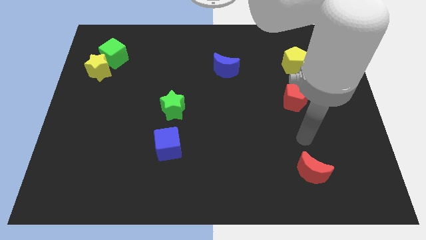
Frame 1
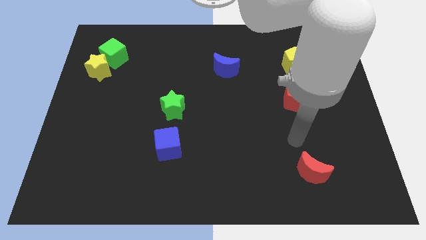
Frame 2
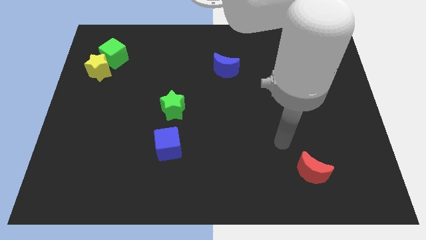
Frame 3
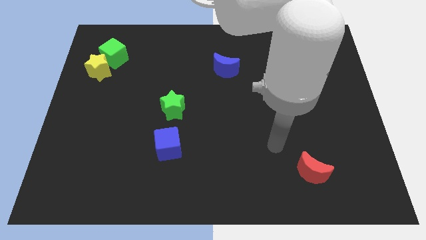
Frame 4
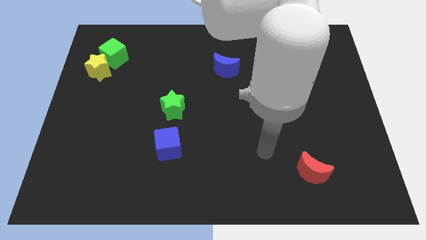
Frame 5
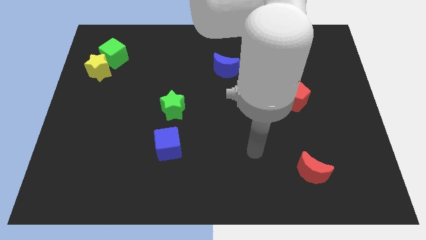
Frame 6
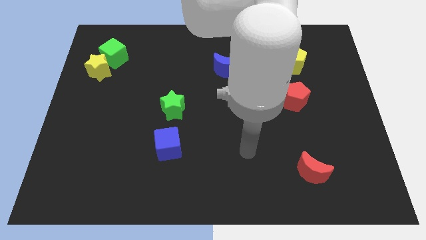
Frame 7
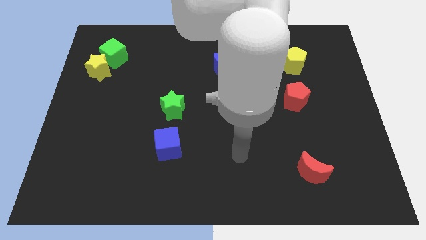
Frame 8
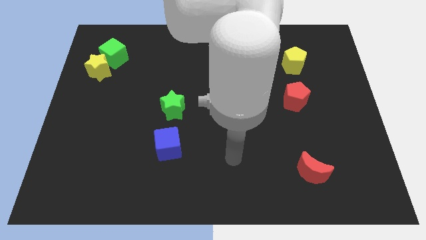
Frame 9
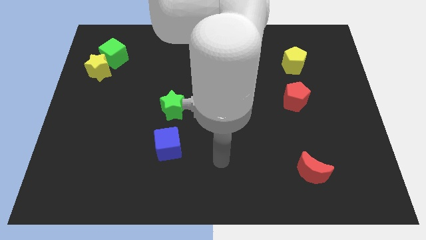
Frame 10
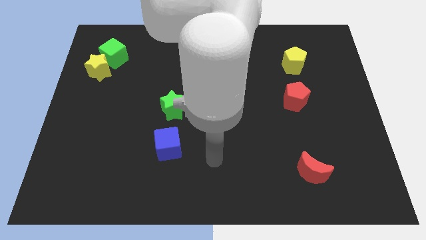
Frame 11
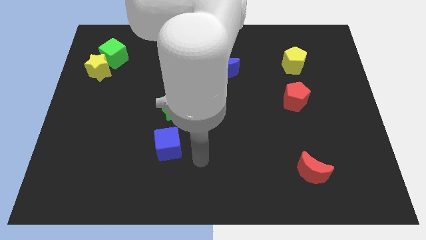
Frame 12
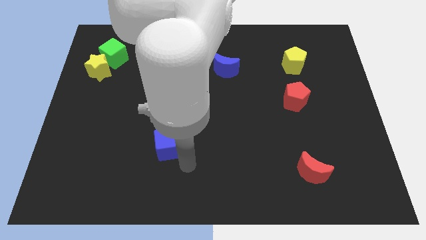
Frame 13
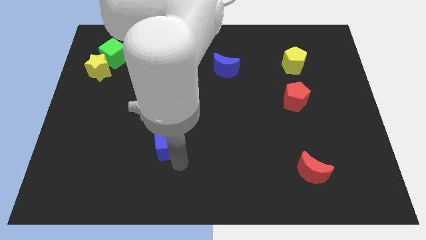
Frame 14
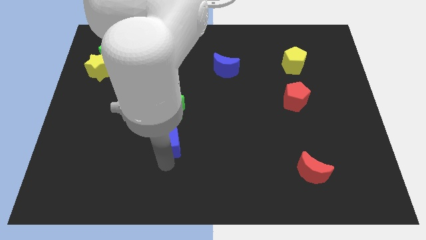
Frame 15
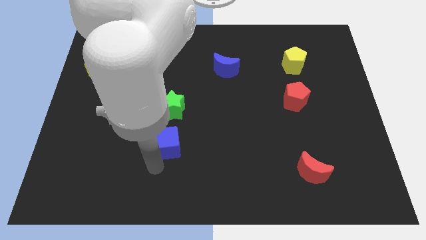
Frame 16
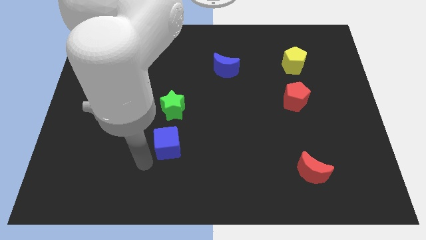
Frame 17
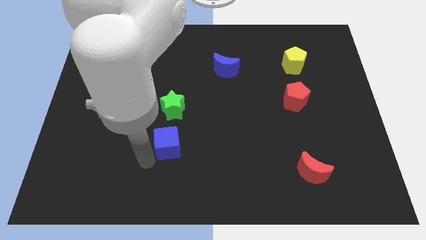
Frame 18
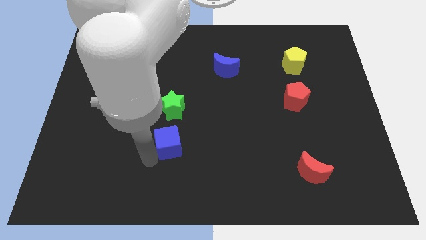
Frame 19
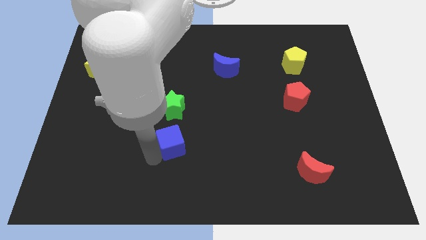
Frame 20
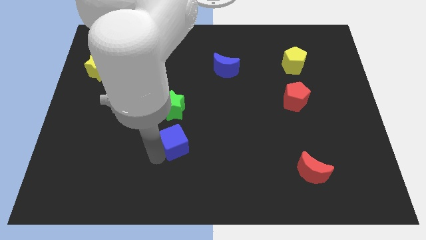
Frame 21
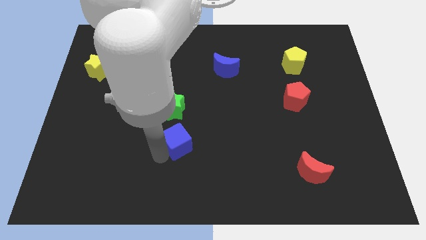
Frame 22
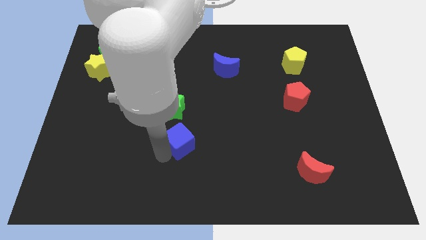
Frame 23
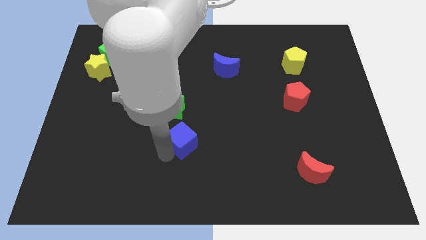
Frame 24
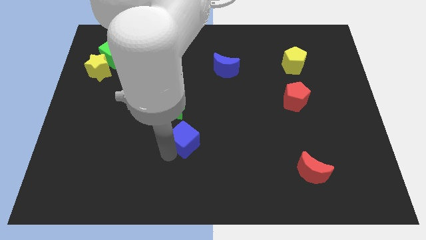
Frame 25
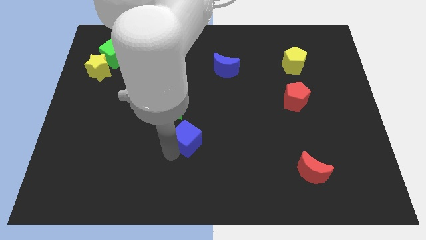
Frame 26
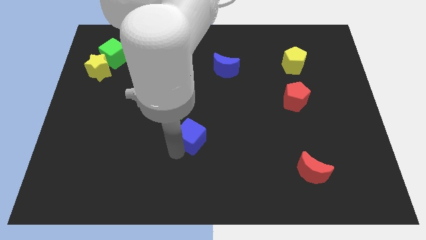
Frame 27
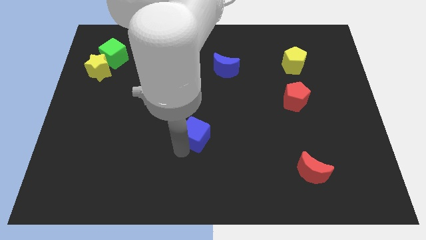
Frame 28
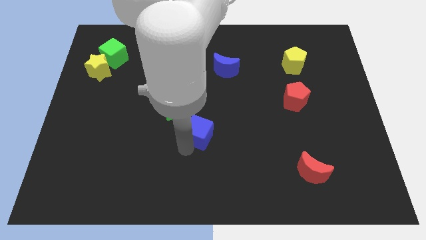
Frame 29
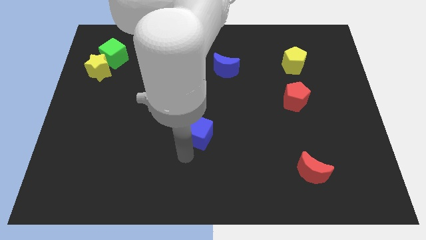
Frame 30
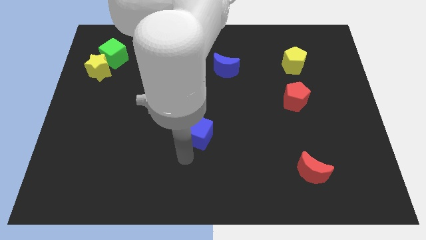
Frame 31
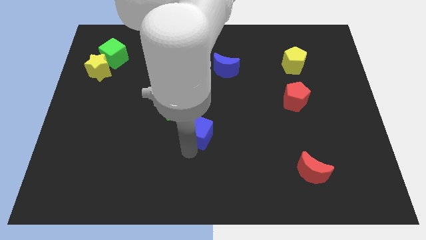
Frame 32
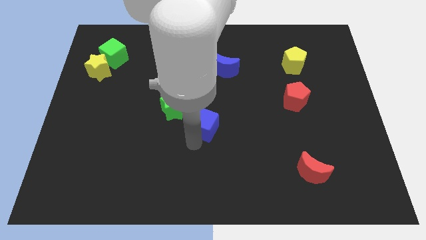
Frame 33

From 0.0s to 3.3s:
push the blue cube slightly up and to the right diagonally

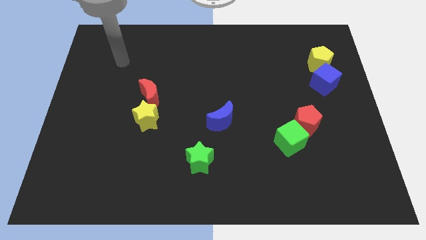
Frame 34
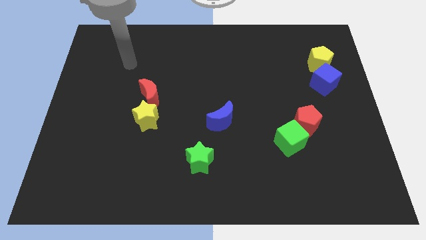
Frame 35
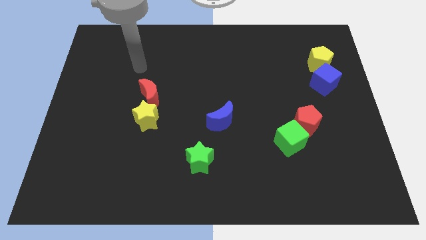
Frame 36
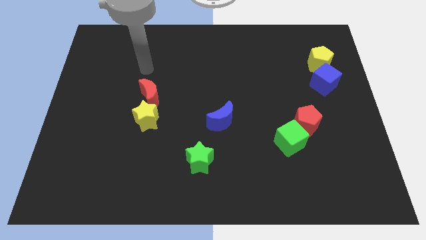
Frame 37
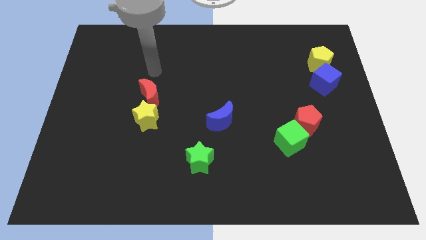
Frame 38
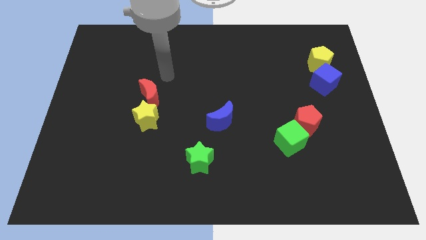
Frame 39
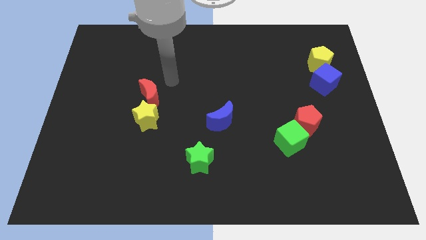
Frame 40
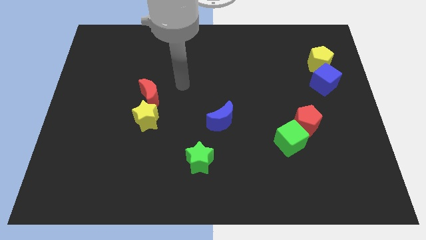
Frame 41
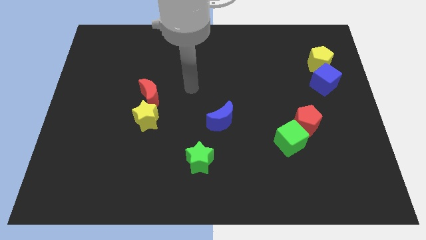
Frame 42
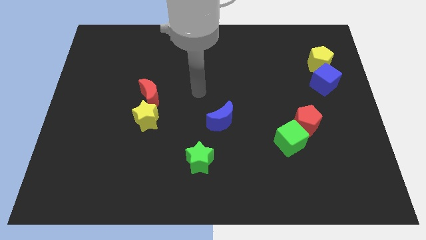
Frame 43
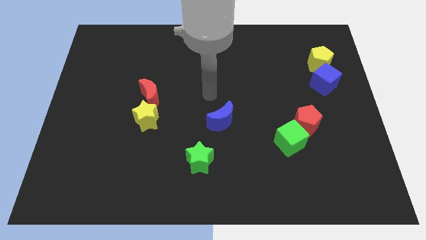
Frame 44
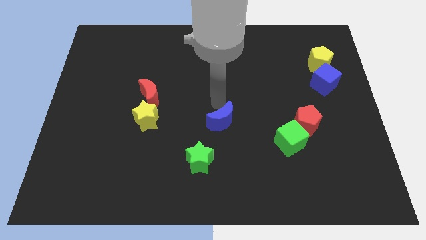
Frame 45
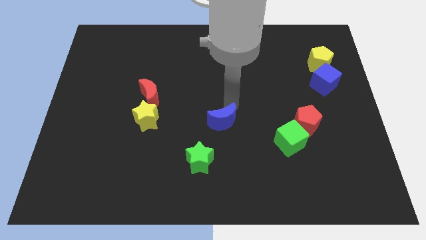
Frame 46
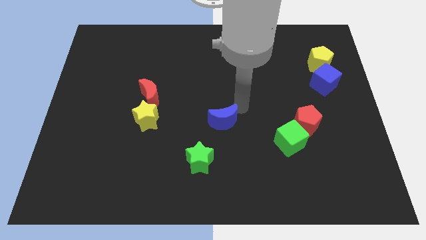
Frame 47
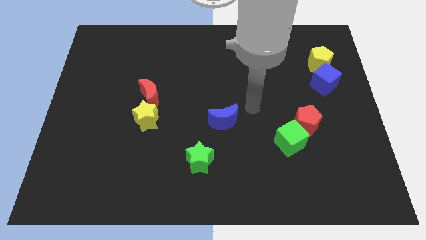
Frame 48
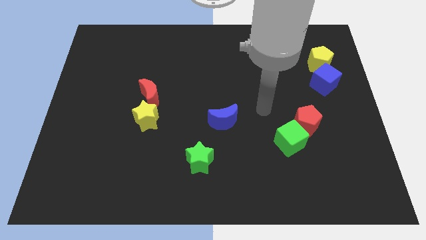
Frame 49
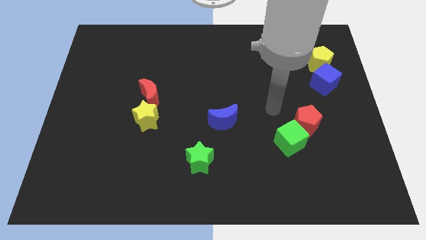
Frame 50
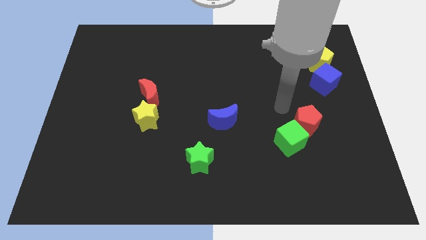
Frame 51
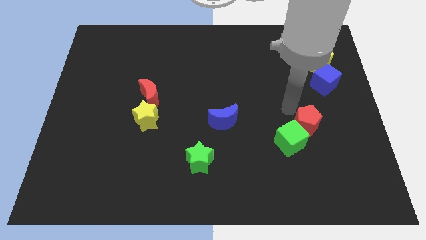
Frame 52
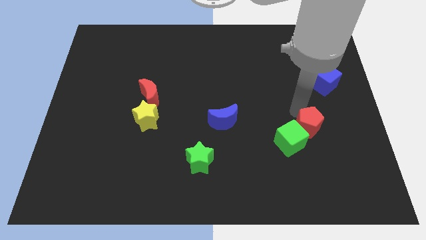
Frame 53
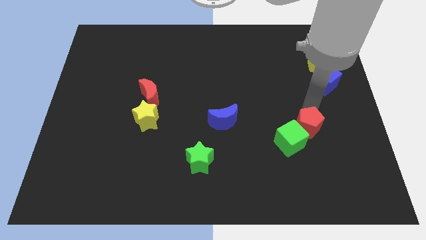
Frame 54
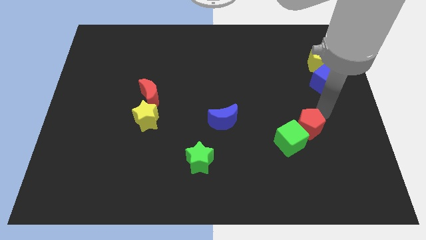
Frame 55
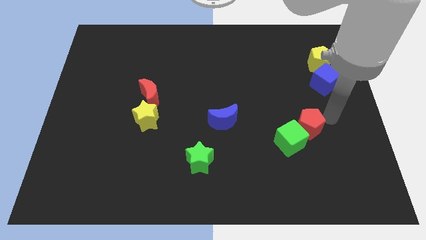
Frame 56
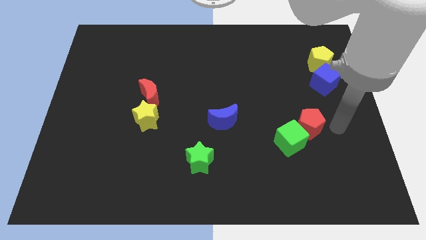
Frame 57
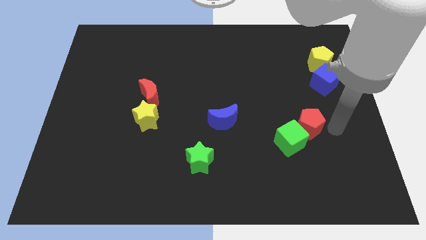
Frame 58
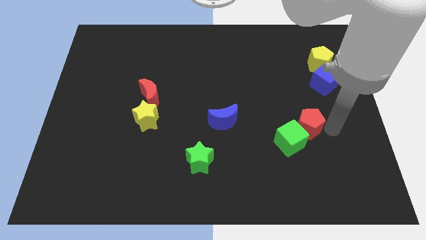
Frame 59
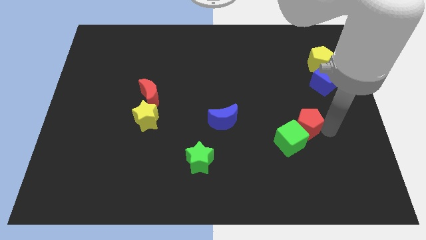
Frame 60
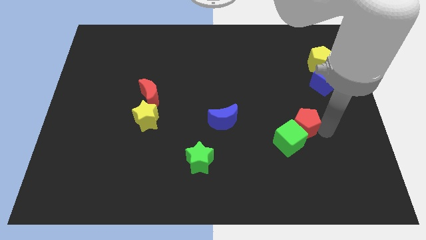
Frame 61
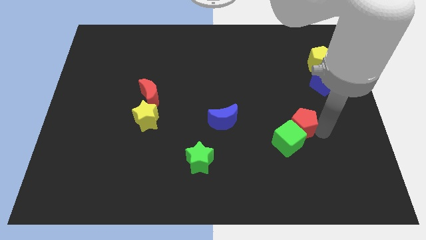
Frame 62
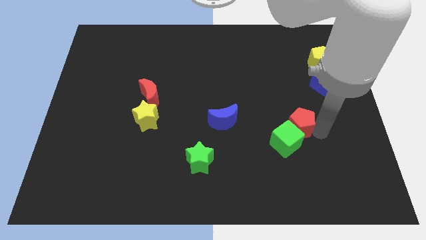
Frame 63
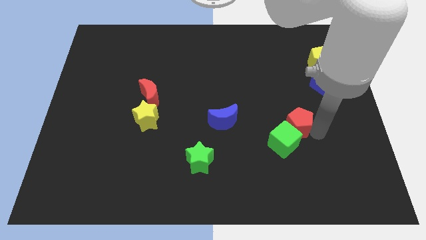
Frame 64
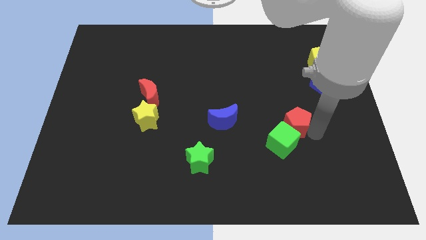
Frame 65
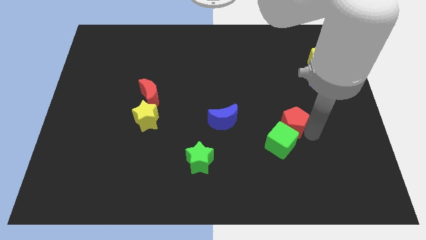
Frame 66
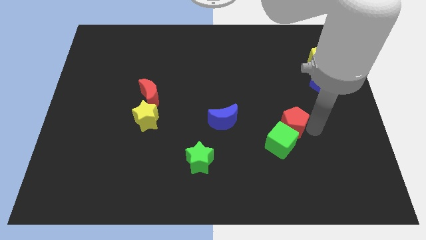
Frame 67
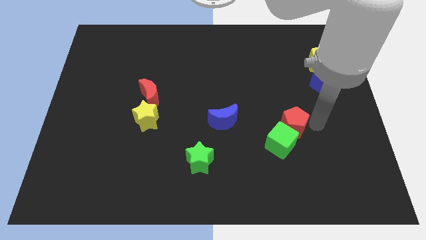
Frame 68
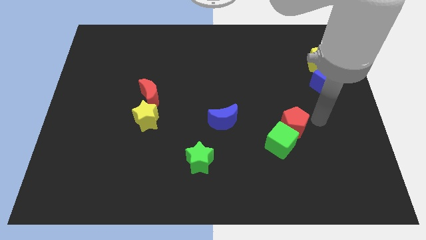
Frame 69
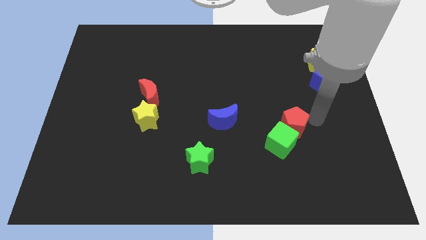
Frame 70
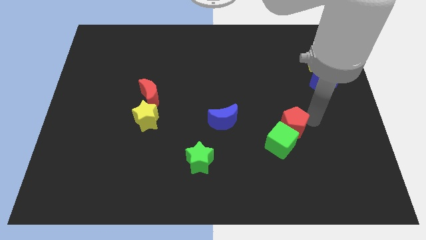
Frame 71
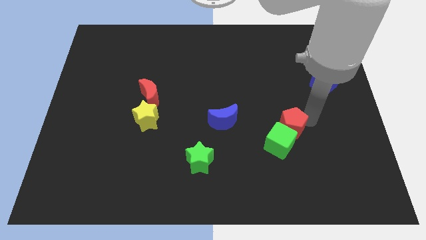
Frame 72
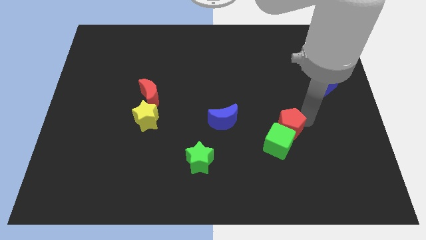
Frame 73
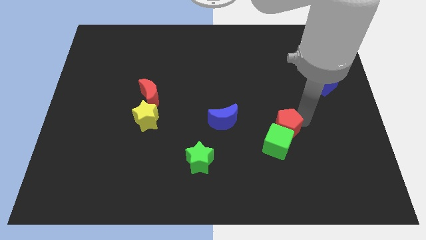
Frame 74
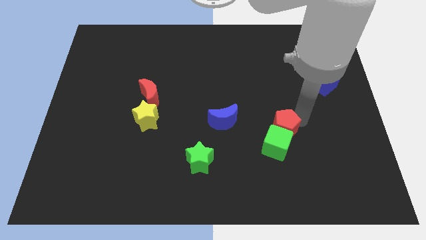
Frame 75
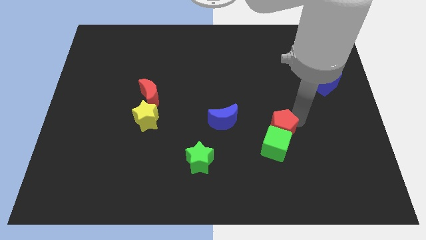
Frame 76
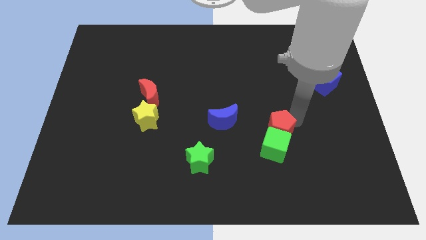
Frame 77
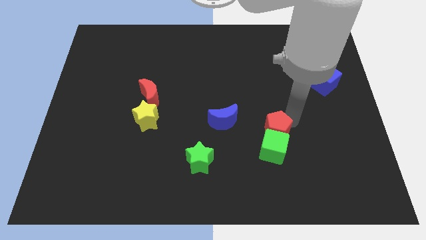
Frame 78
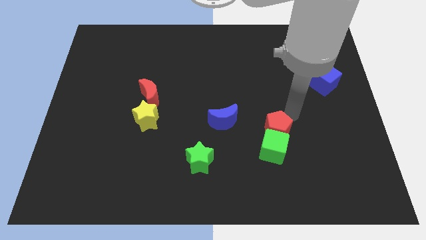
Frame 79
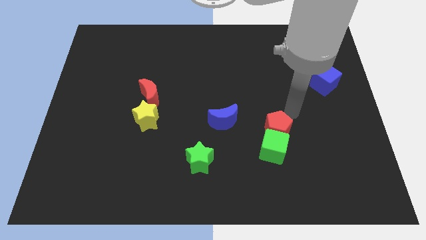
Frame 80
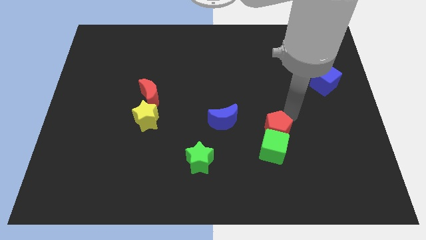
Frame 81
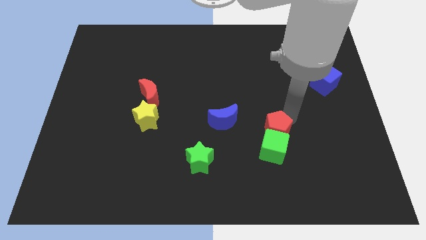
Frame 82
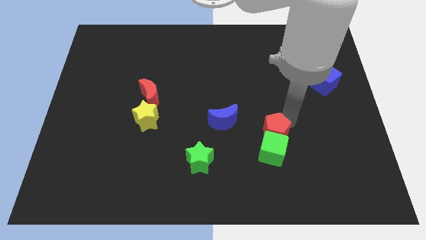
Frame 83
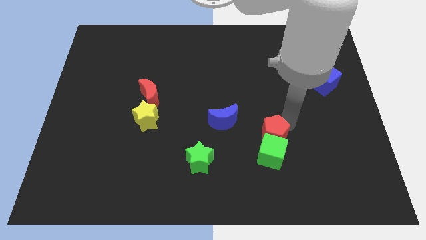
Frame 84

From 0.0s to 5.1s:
move the red pentagon downwards and to the left diagonally somewhat
